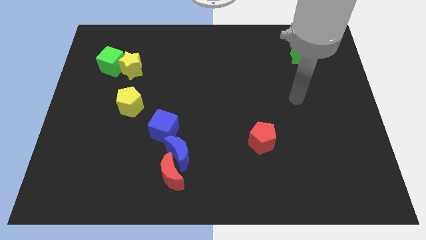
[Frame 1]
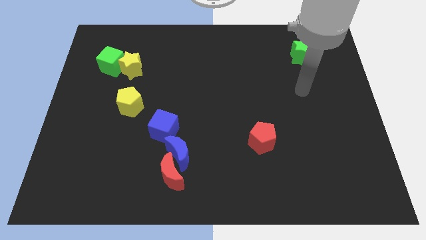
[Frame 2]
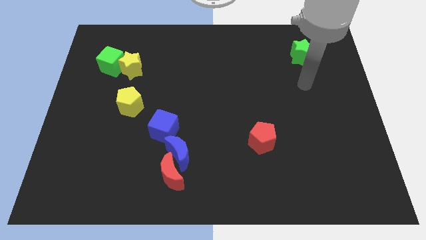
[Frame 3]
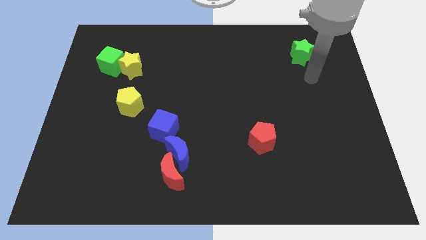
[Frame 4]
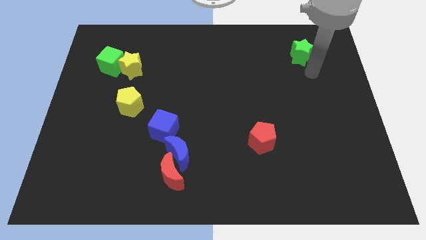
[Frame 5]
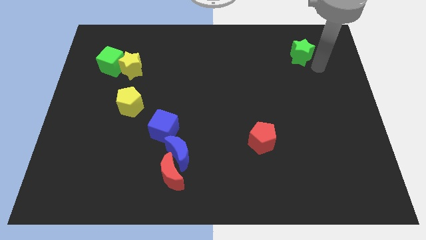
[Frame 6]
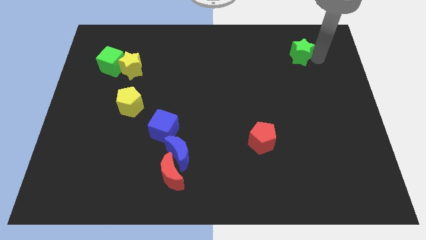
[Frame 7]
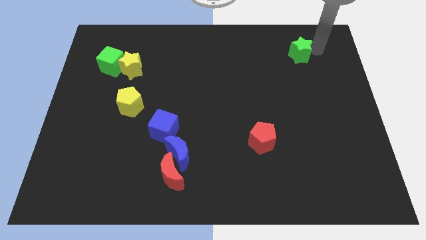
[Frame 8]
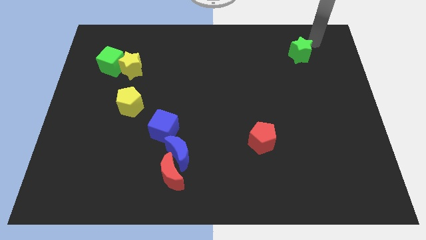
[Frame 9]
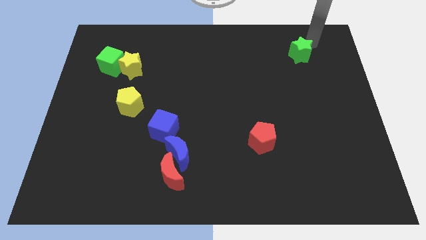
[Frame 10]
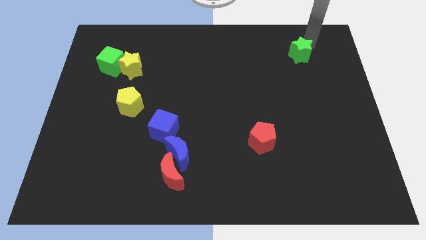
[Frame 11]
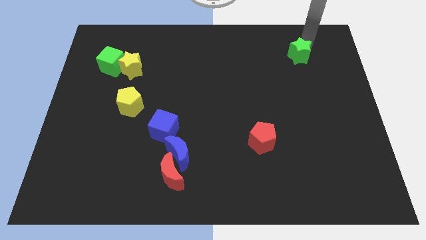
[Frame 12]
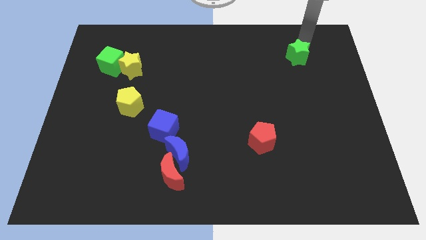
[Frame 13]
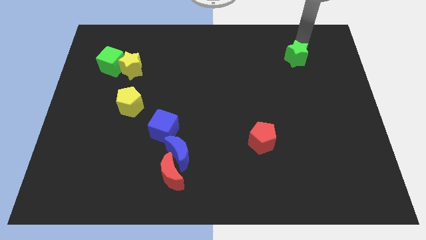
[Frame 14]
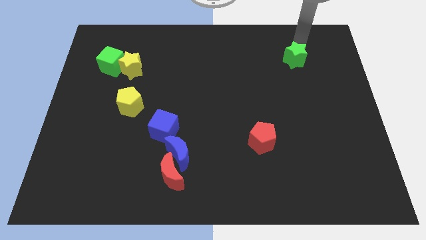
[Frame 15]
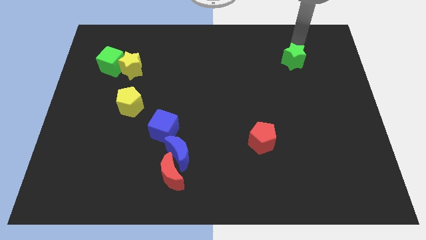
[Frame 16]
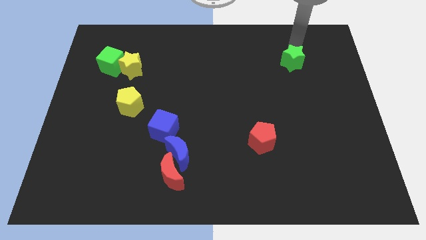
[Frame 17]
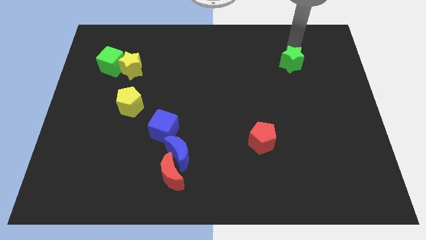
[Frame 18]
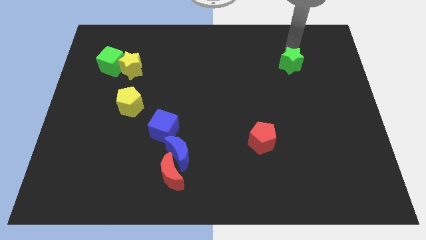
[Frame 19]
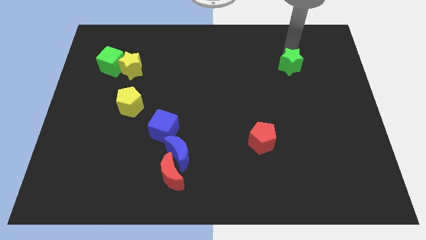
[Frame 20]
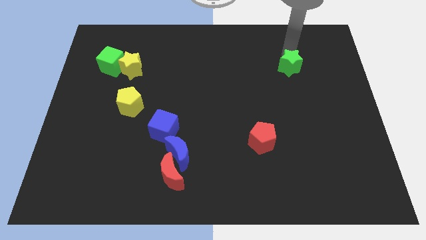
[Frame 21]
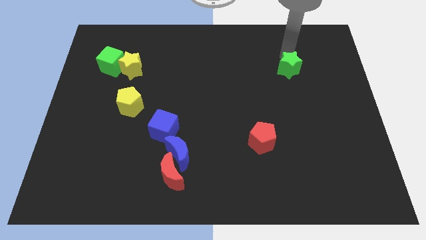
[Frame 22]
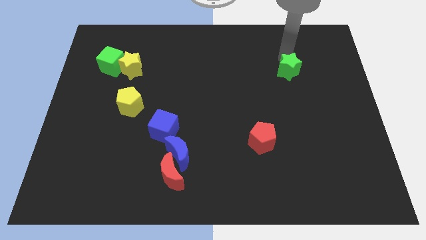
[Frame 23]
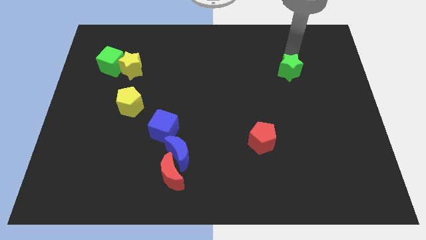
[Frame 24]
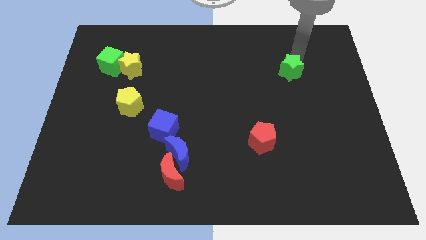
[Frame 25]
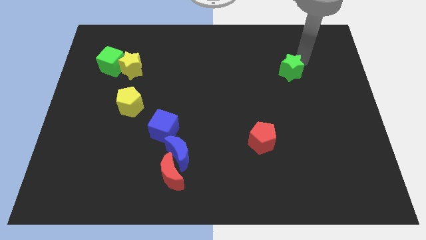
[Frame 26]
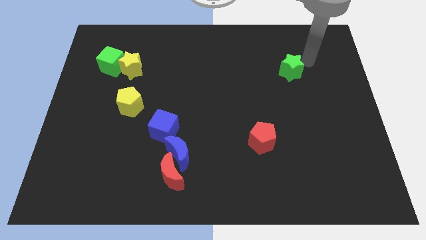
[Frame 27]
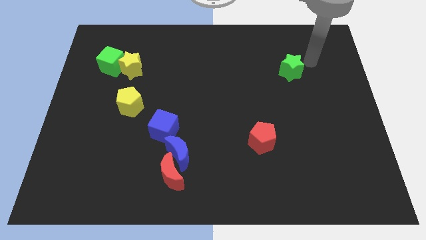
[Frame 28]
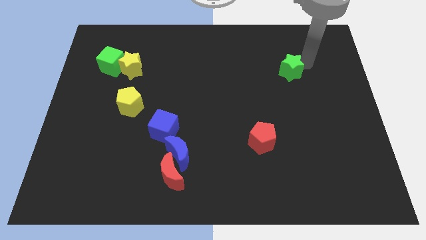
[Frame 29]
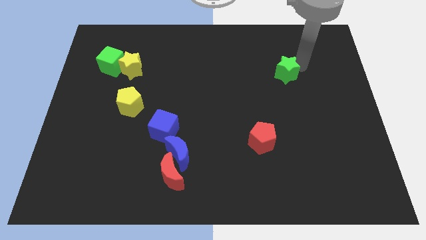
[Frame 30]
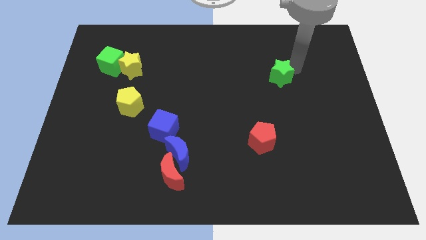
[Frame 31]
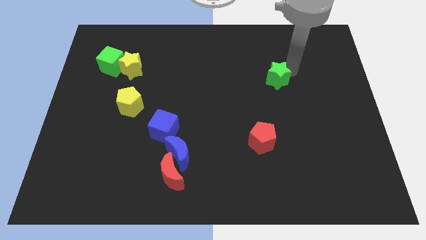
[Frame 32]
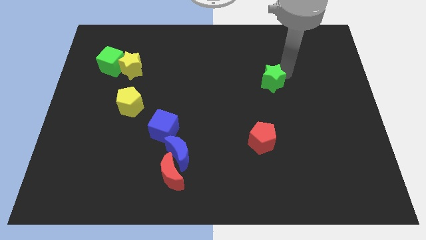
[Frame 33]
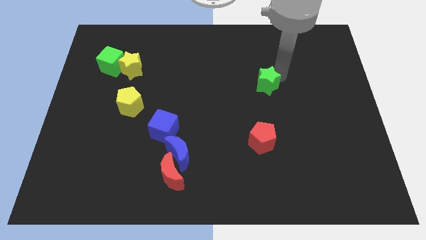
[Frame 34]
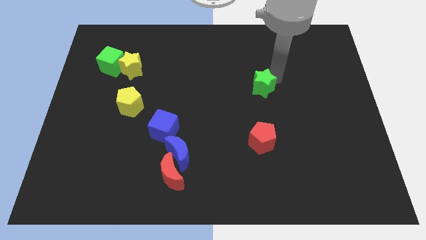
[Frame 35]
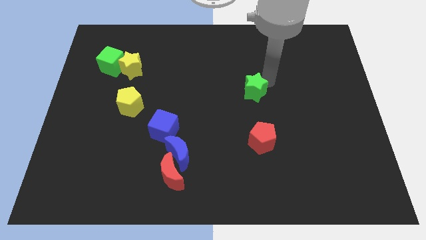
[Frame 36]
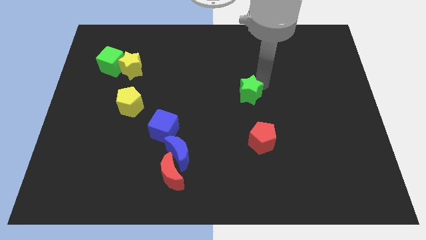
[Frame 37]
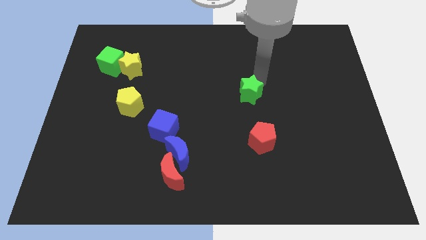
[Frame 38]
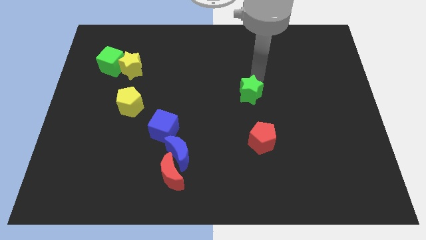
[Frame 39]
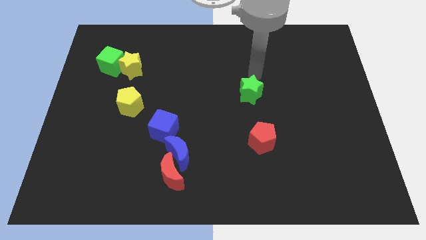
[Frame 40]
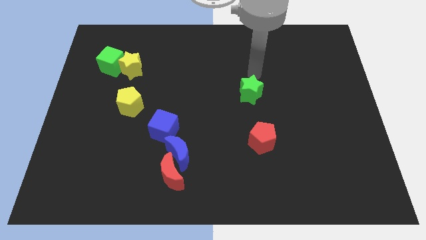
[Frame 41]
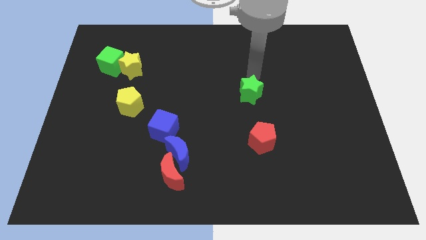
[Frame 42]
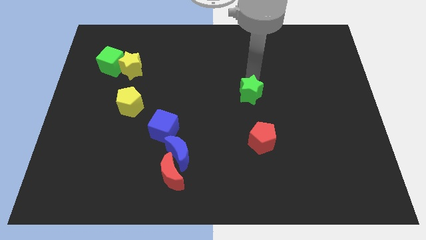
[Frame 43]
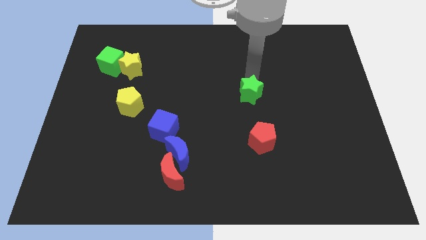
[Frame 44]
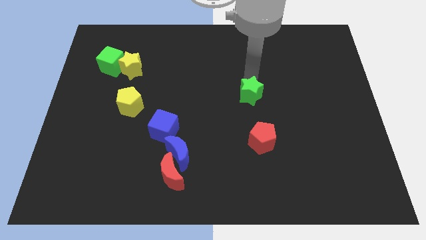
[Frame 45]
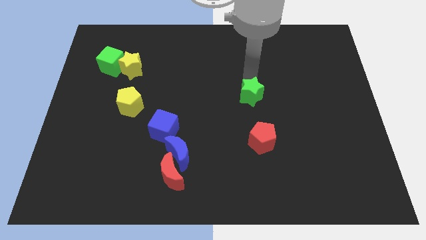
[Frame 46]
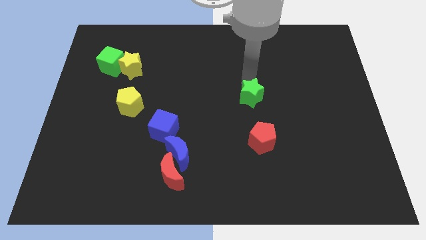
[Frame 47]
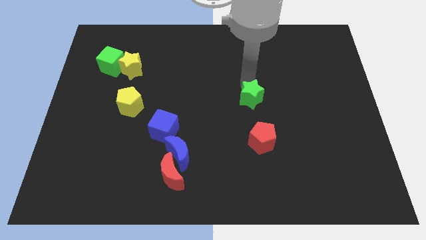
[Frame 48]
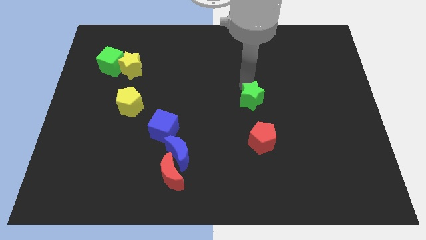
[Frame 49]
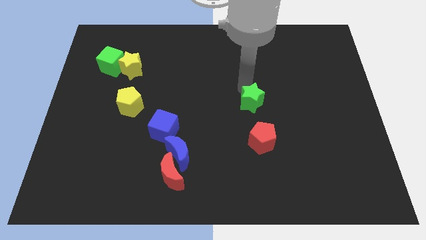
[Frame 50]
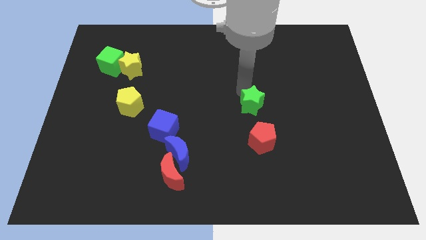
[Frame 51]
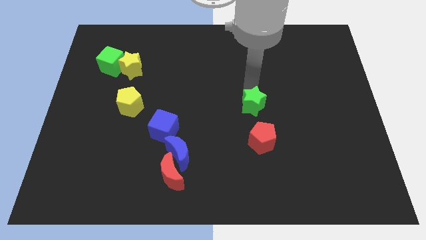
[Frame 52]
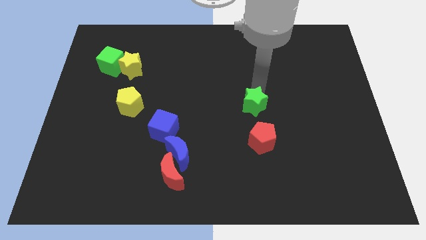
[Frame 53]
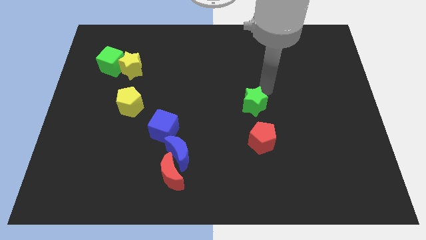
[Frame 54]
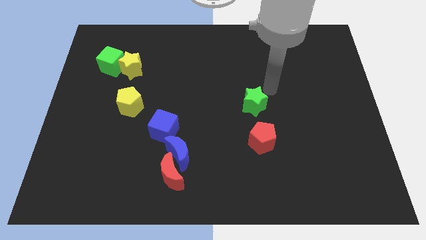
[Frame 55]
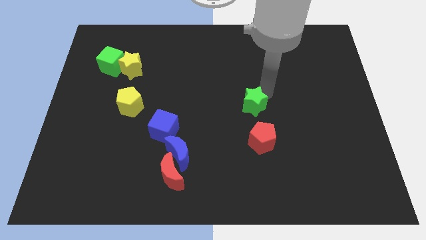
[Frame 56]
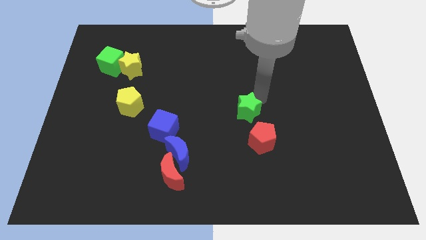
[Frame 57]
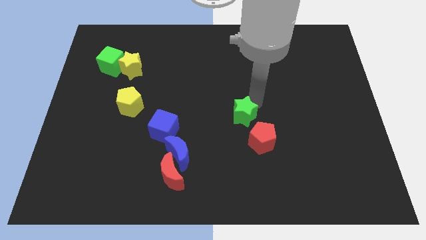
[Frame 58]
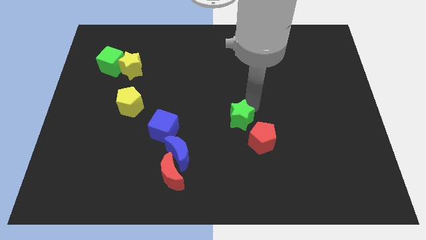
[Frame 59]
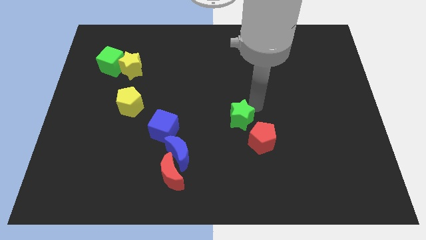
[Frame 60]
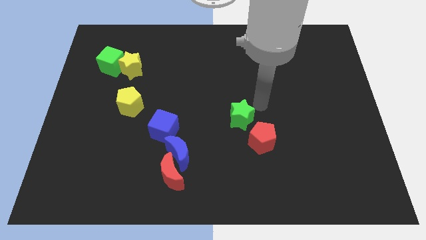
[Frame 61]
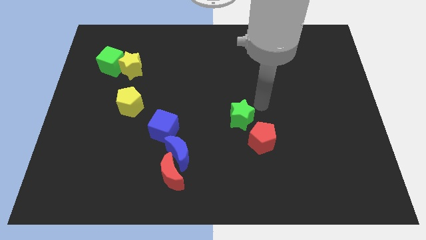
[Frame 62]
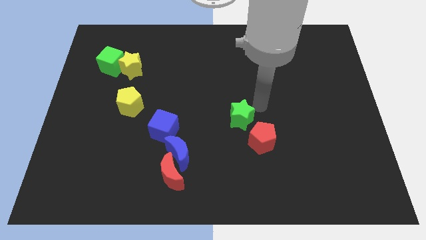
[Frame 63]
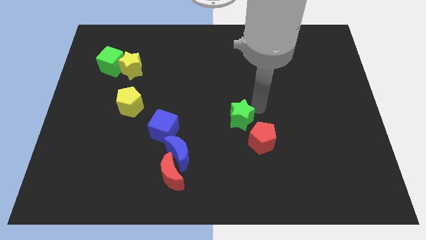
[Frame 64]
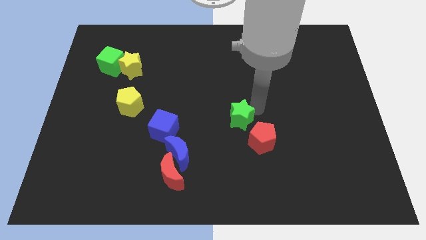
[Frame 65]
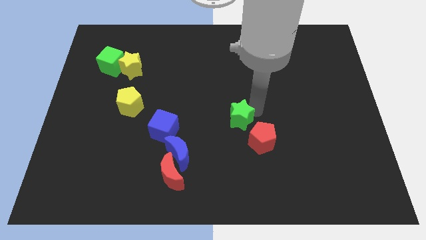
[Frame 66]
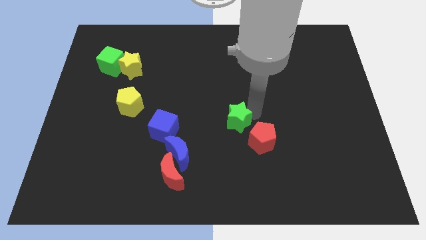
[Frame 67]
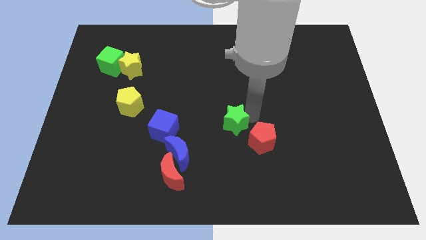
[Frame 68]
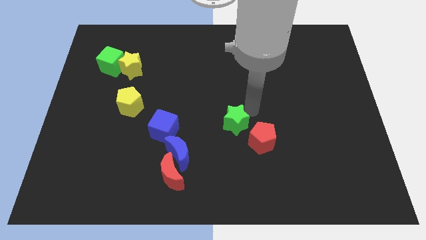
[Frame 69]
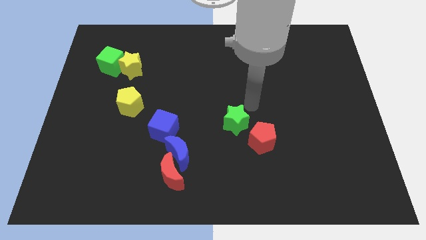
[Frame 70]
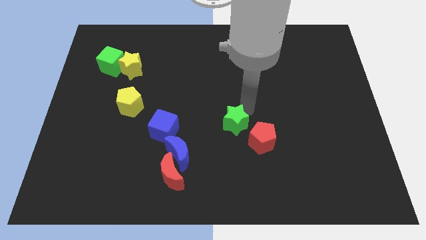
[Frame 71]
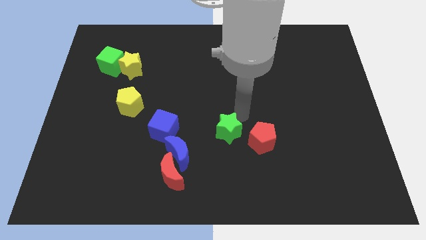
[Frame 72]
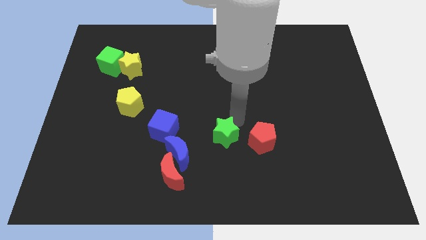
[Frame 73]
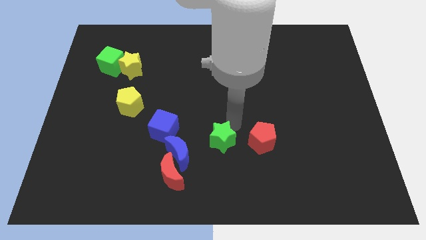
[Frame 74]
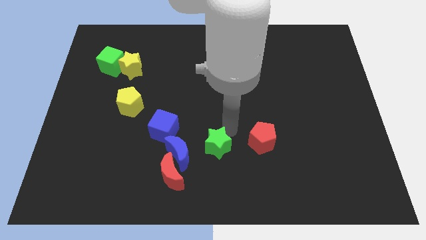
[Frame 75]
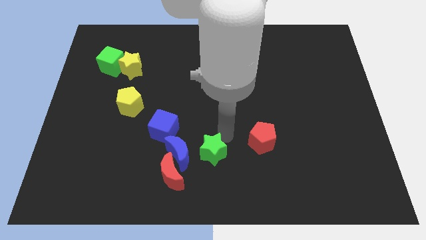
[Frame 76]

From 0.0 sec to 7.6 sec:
move the green star diagonally down and to the right of the blue cube
